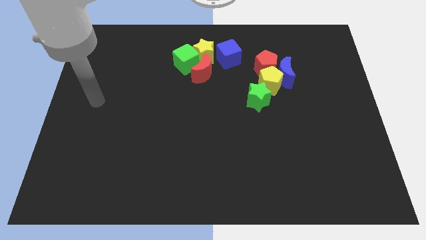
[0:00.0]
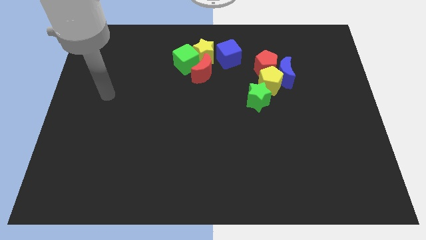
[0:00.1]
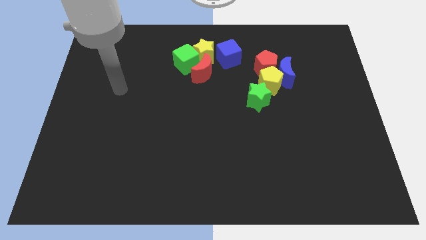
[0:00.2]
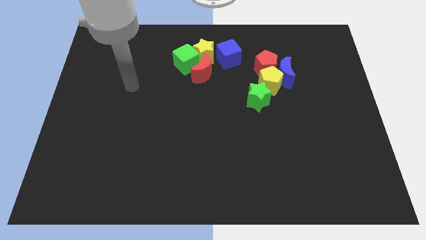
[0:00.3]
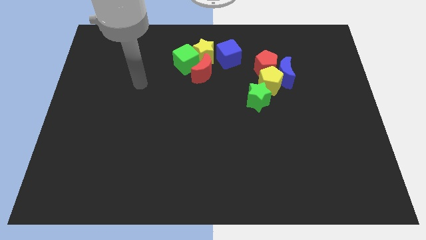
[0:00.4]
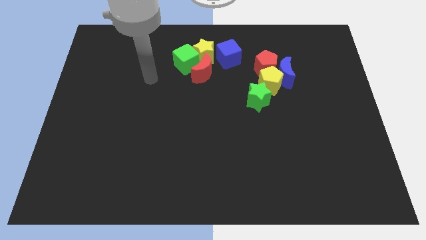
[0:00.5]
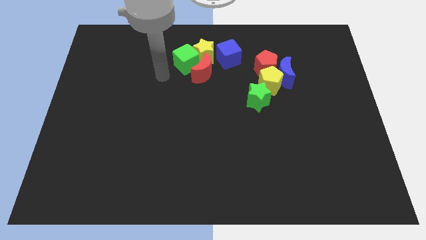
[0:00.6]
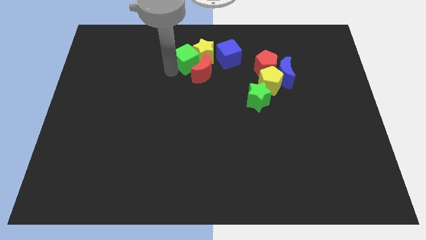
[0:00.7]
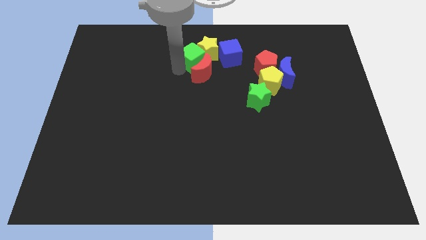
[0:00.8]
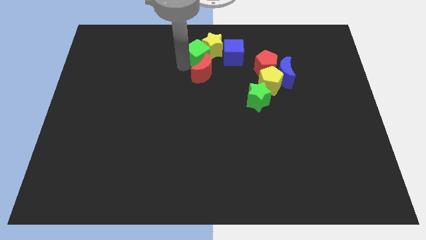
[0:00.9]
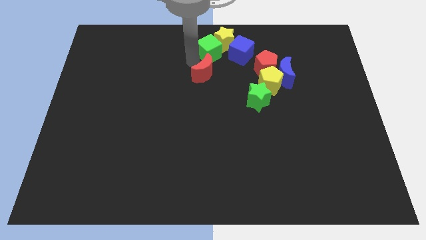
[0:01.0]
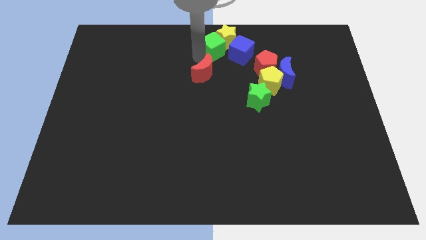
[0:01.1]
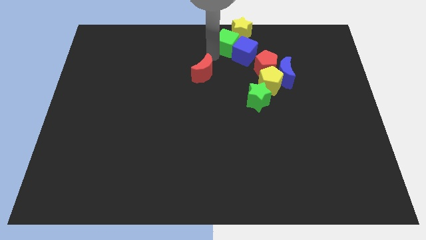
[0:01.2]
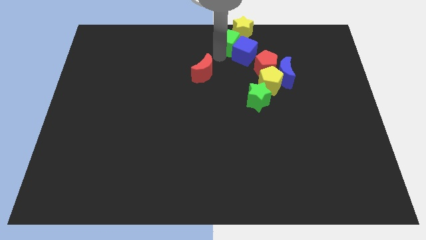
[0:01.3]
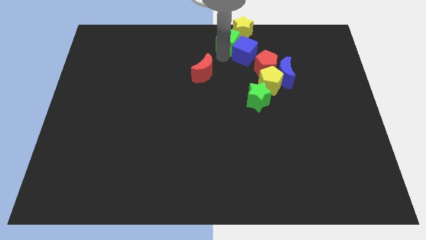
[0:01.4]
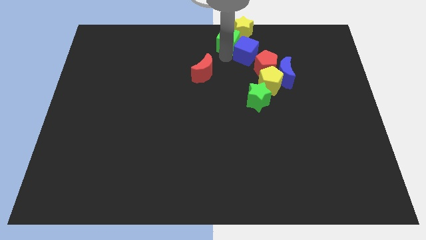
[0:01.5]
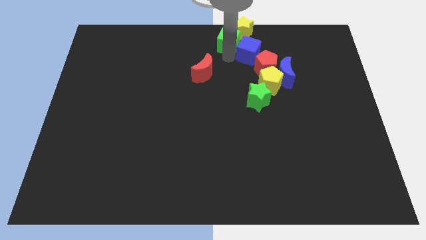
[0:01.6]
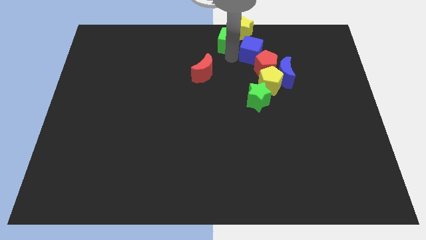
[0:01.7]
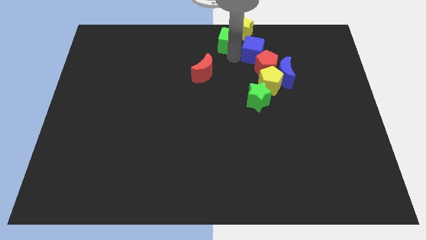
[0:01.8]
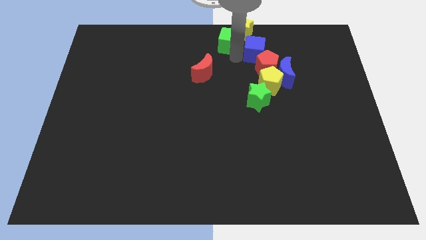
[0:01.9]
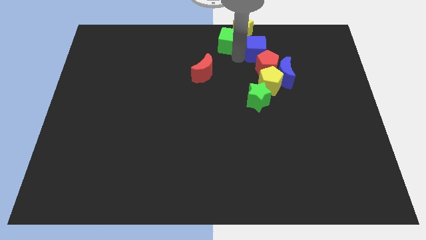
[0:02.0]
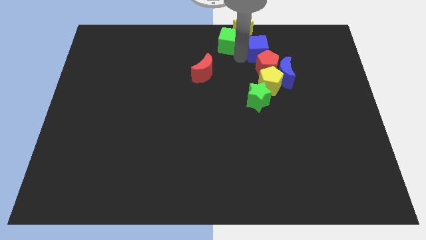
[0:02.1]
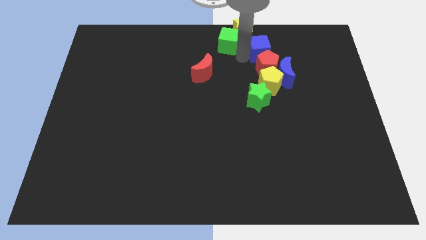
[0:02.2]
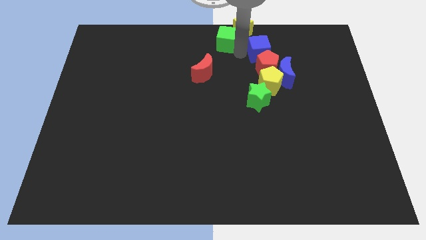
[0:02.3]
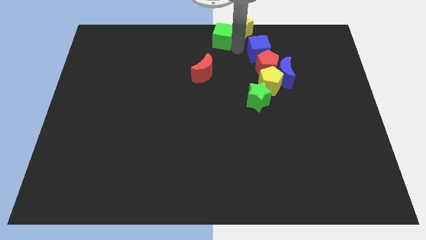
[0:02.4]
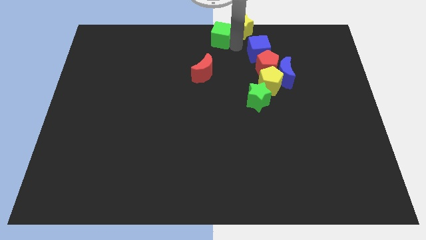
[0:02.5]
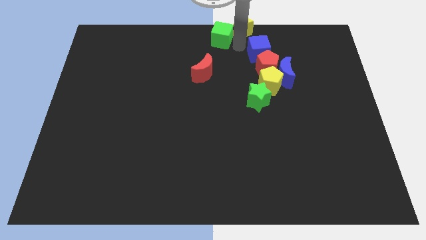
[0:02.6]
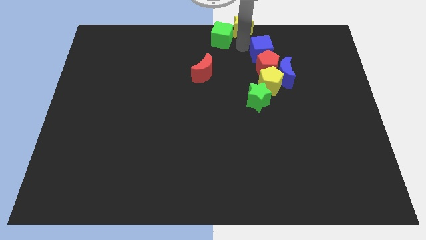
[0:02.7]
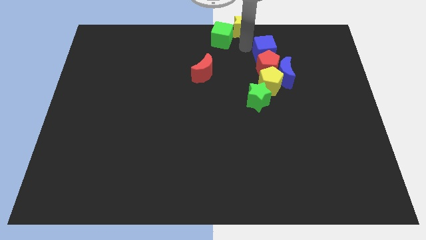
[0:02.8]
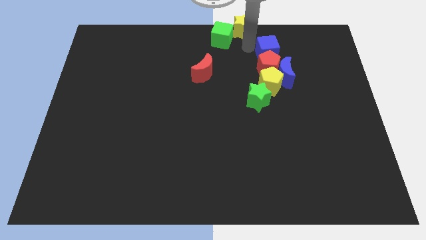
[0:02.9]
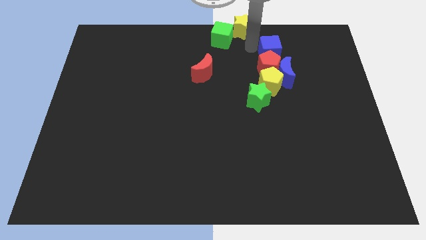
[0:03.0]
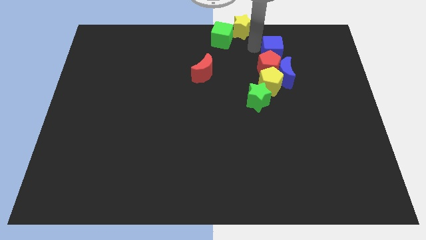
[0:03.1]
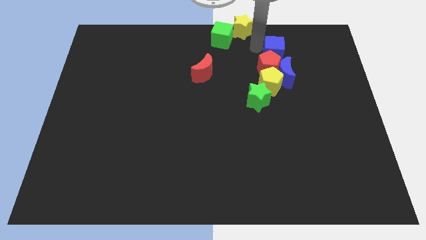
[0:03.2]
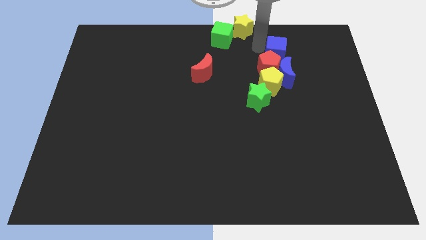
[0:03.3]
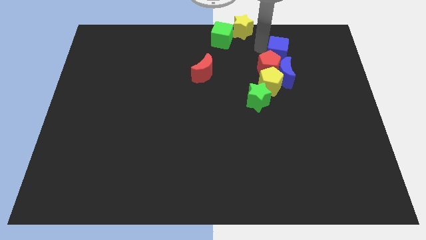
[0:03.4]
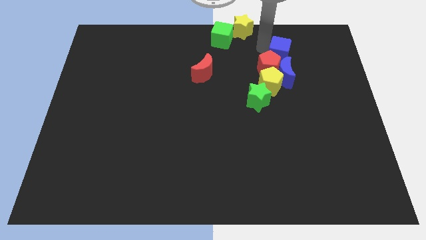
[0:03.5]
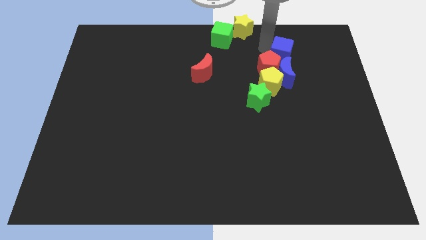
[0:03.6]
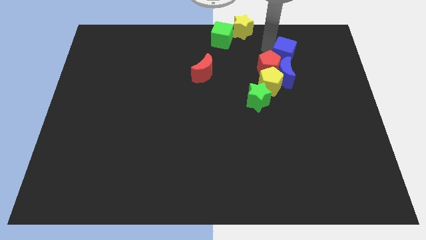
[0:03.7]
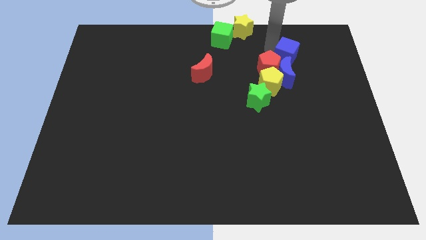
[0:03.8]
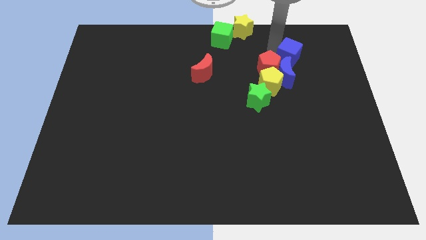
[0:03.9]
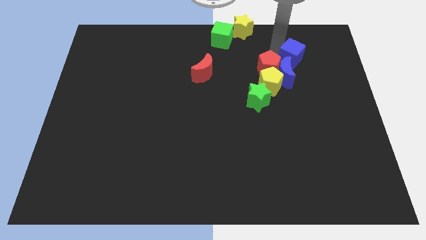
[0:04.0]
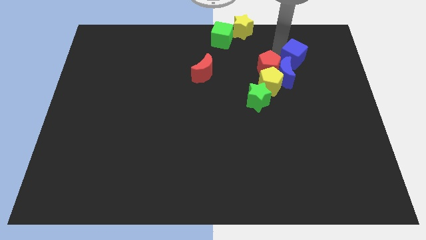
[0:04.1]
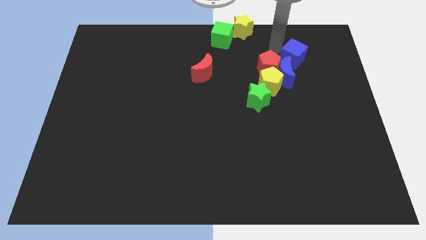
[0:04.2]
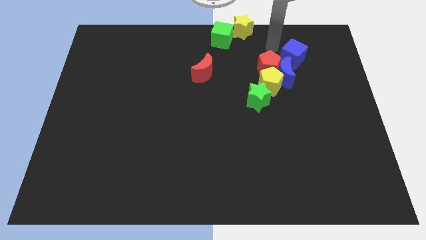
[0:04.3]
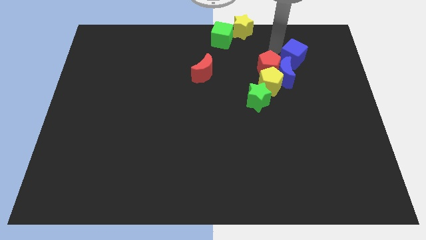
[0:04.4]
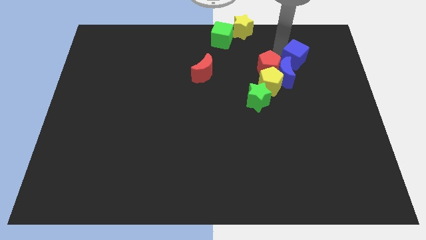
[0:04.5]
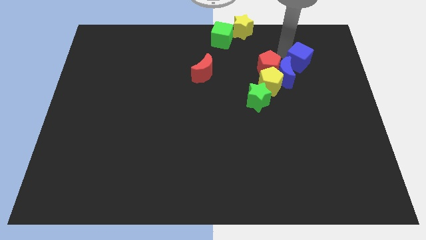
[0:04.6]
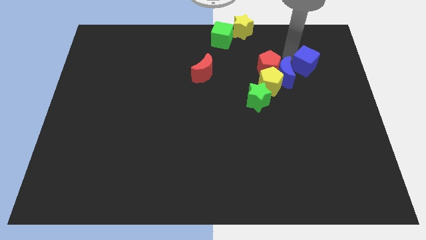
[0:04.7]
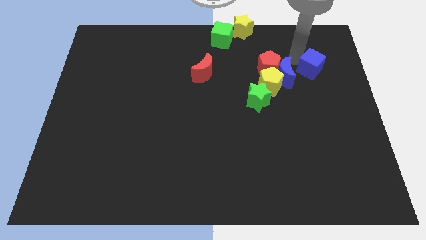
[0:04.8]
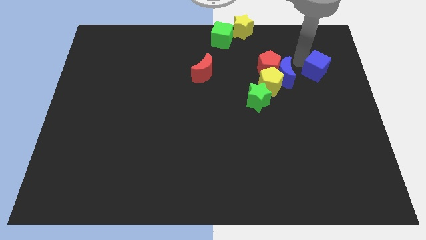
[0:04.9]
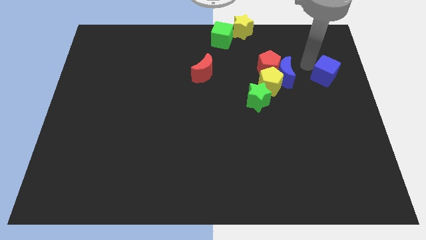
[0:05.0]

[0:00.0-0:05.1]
move the blue cube to the center right

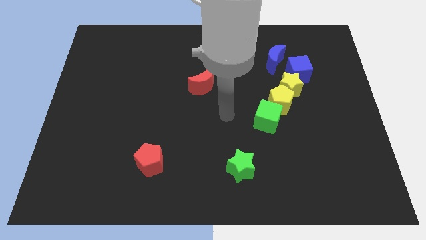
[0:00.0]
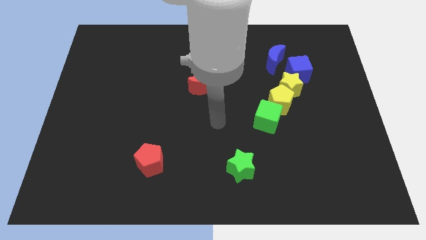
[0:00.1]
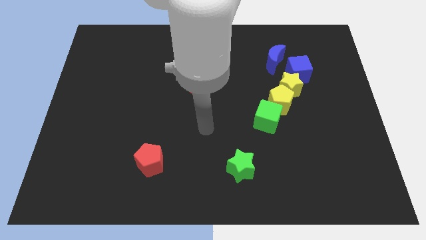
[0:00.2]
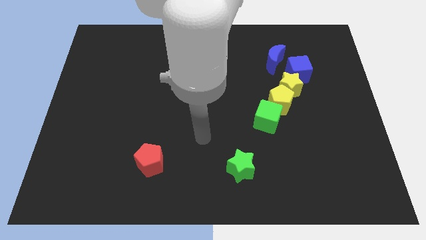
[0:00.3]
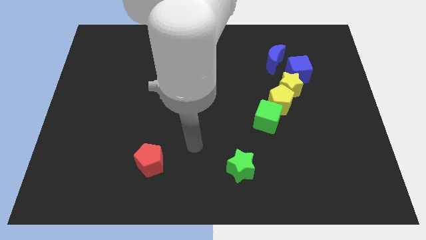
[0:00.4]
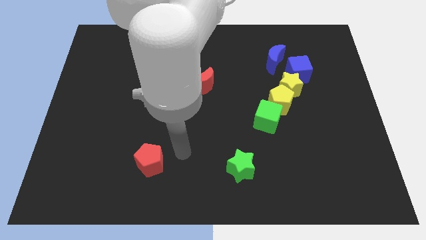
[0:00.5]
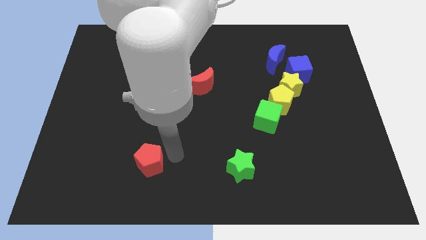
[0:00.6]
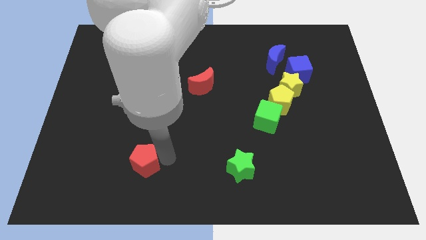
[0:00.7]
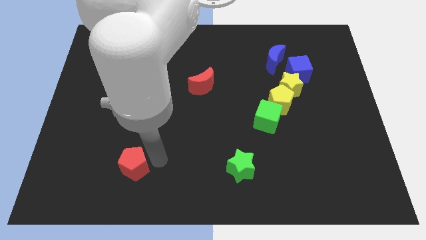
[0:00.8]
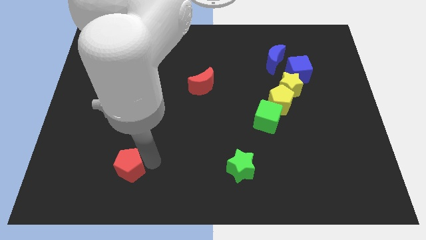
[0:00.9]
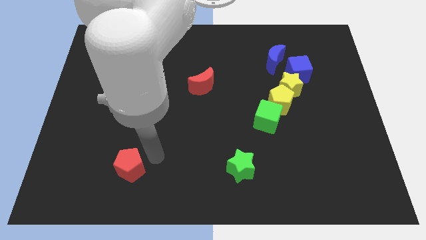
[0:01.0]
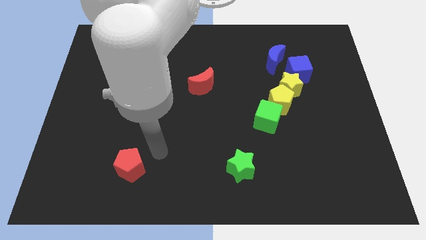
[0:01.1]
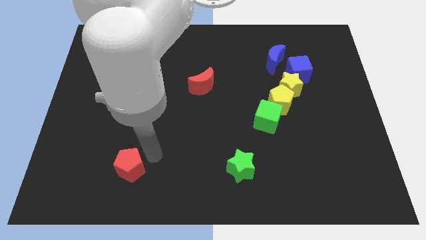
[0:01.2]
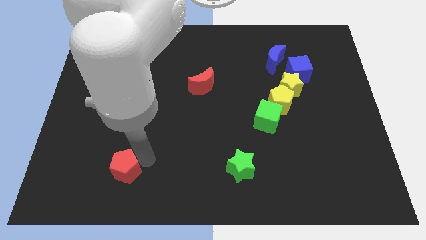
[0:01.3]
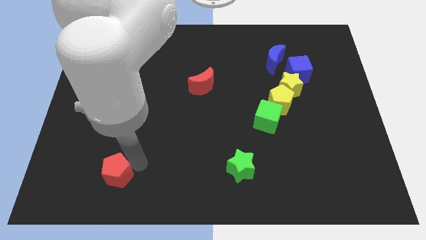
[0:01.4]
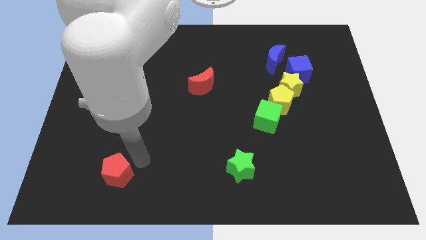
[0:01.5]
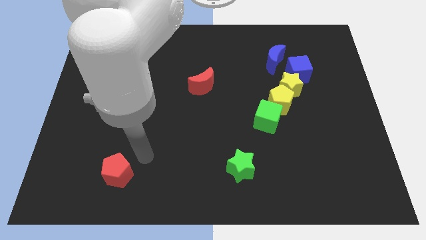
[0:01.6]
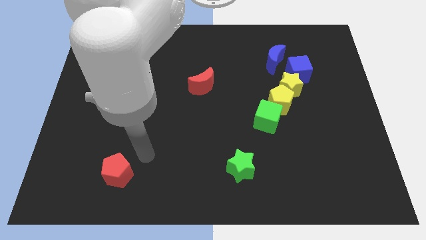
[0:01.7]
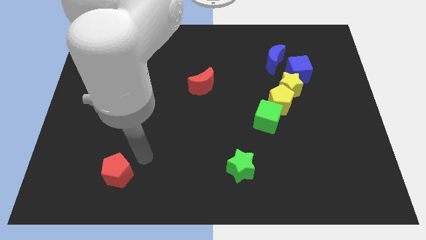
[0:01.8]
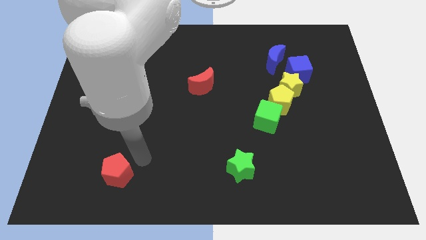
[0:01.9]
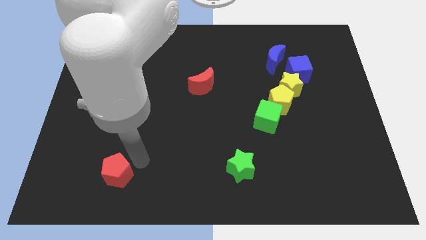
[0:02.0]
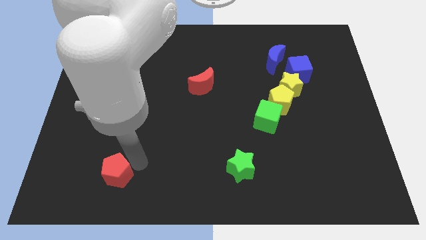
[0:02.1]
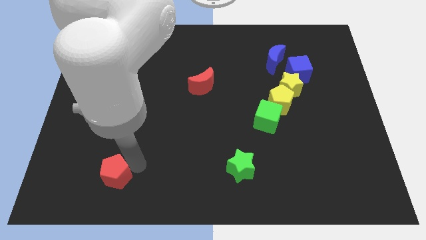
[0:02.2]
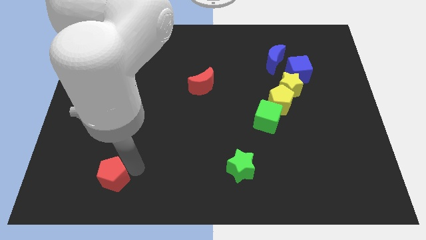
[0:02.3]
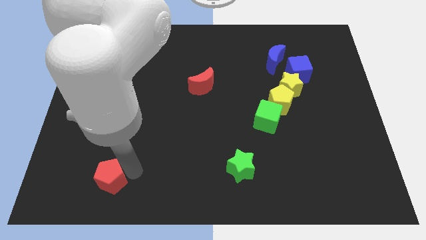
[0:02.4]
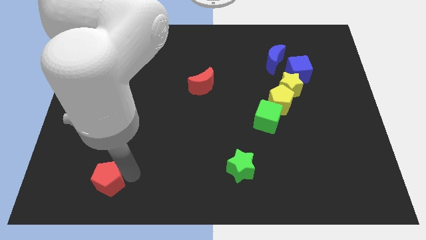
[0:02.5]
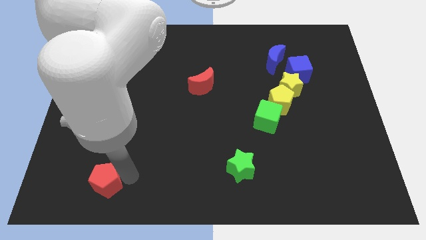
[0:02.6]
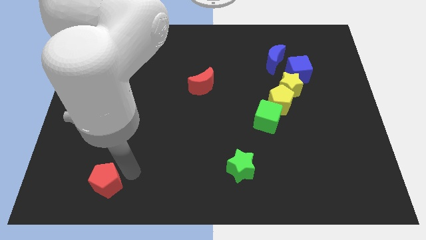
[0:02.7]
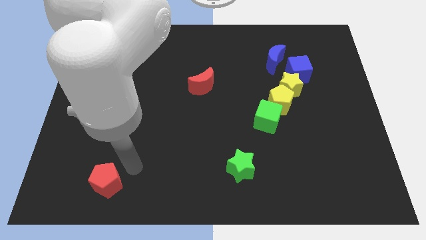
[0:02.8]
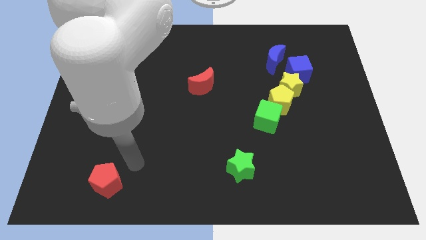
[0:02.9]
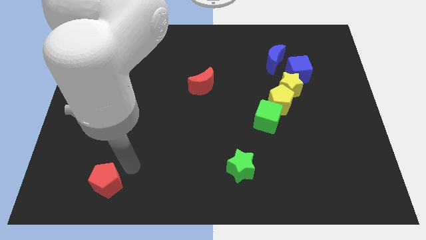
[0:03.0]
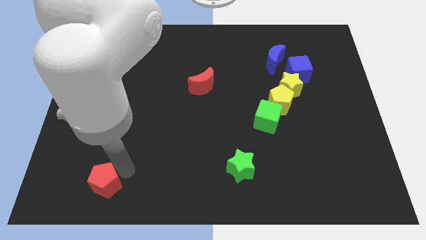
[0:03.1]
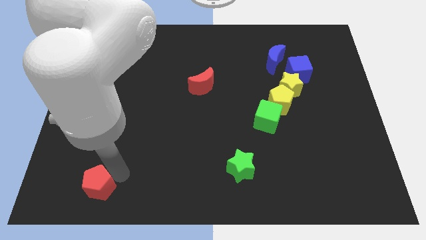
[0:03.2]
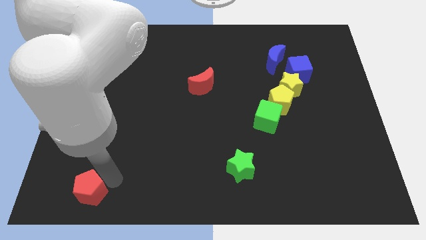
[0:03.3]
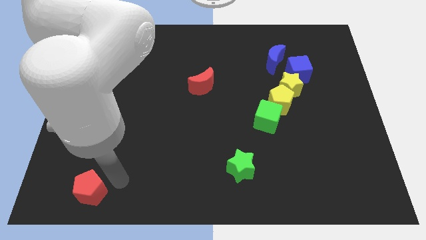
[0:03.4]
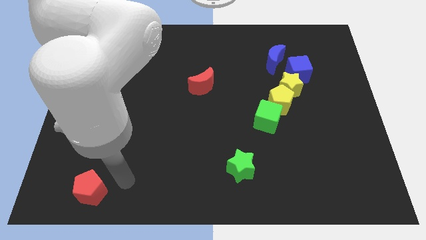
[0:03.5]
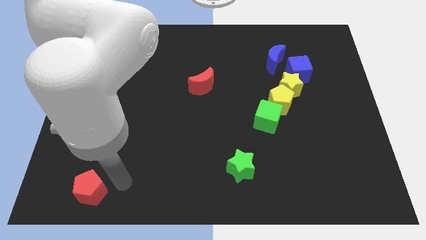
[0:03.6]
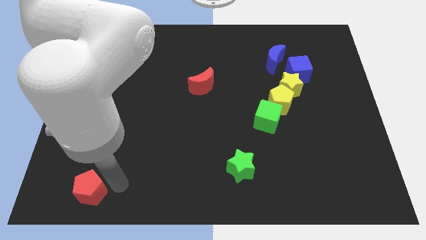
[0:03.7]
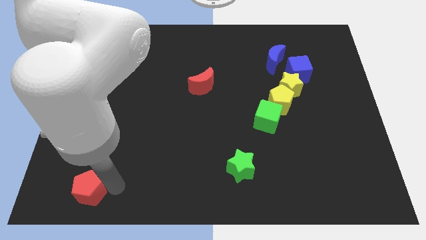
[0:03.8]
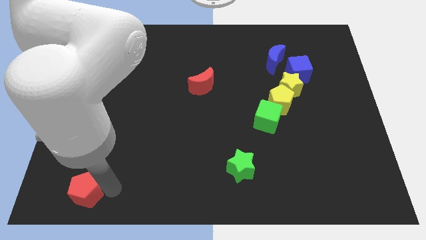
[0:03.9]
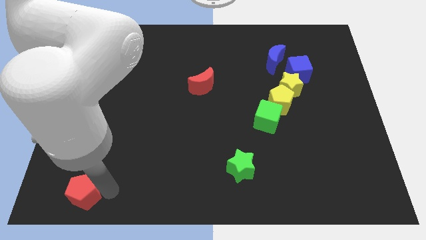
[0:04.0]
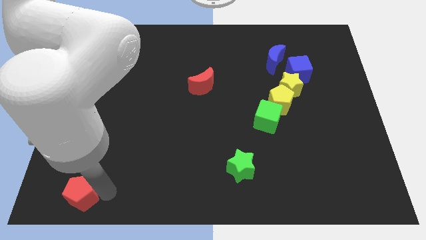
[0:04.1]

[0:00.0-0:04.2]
move the red pentagon to the lower left corner
